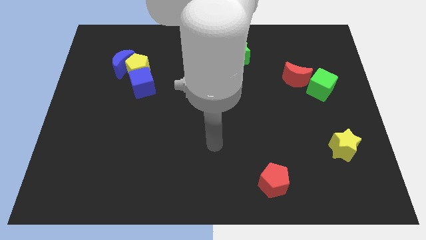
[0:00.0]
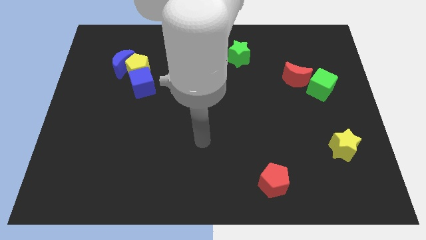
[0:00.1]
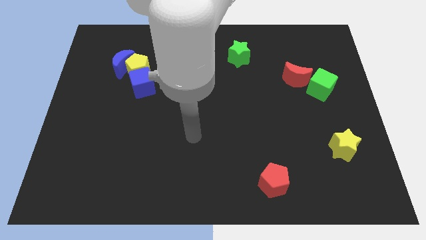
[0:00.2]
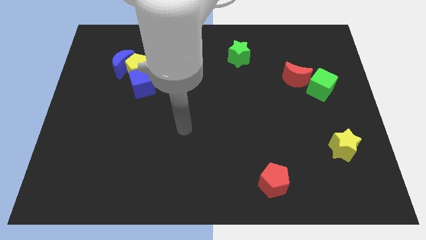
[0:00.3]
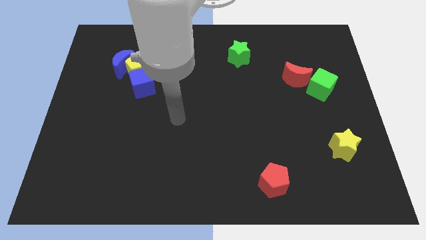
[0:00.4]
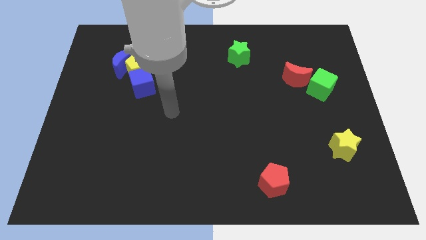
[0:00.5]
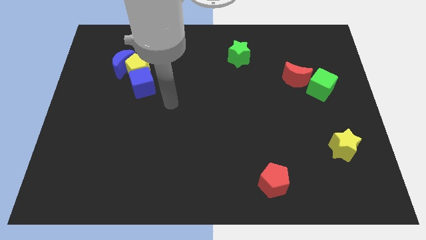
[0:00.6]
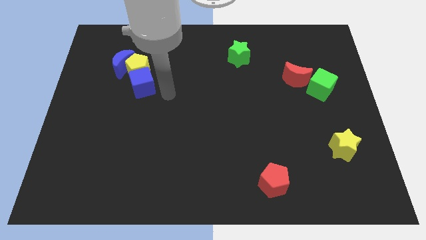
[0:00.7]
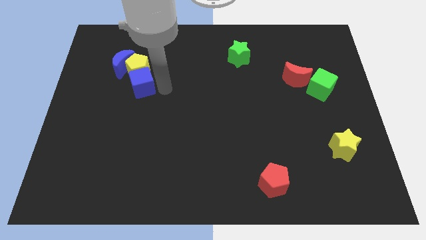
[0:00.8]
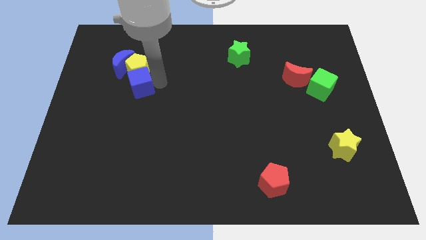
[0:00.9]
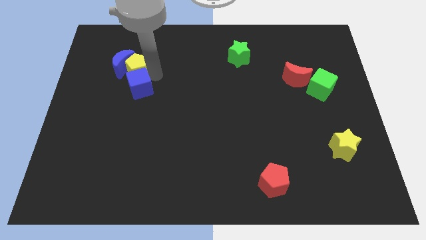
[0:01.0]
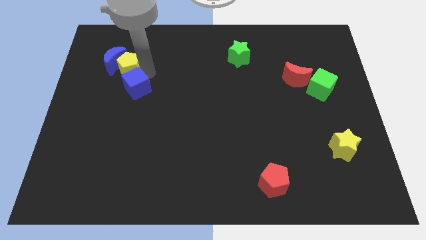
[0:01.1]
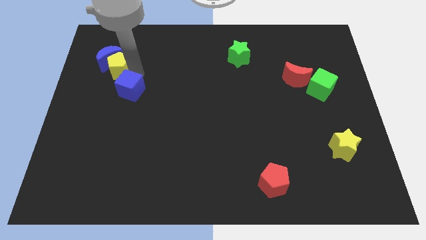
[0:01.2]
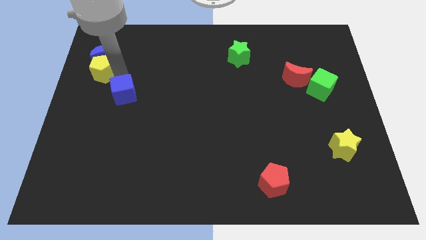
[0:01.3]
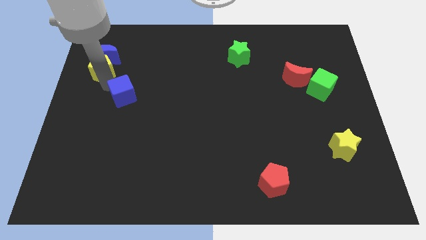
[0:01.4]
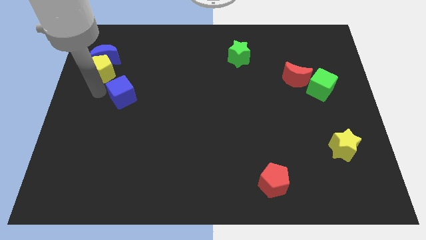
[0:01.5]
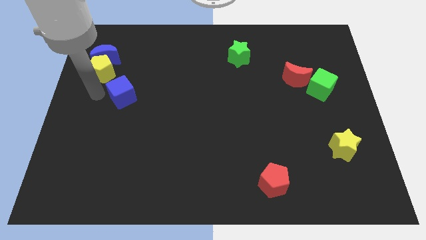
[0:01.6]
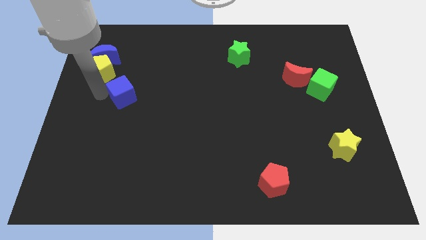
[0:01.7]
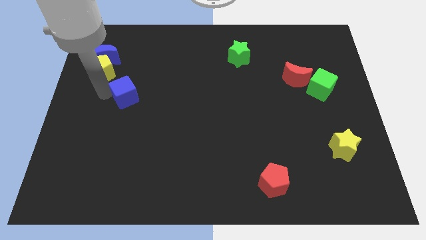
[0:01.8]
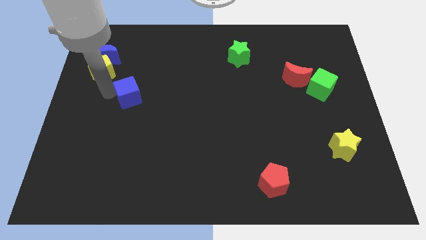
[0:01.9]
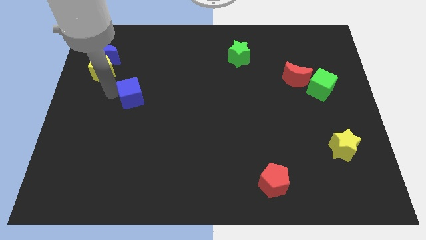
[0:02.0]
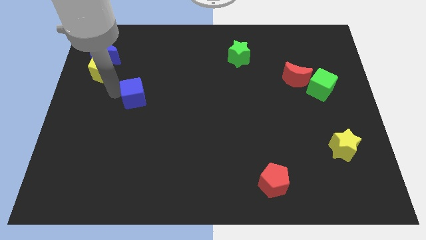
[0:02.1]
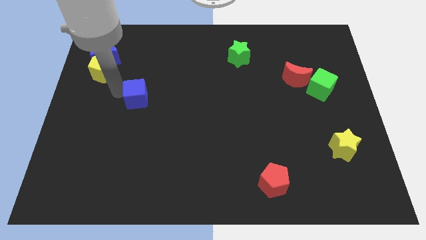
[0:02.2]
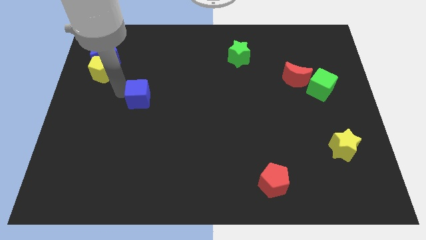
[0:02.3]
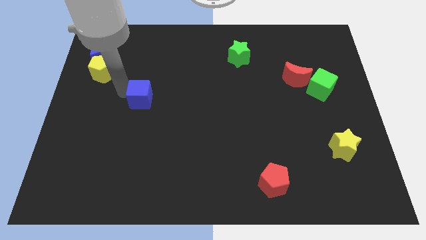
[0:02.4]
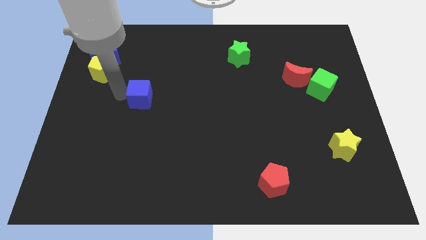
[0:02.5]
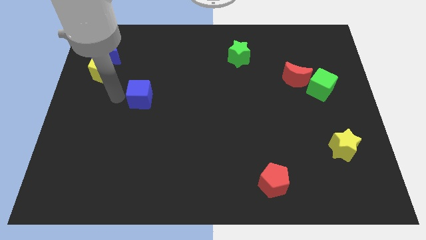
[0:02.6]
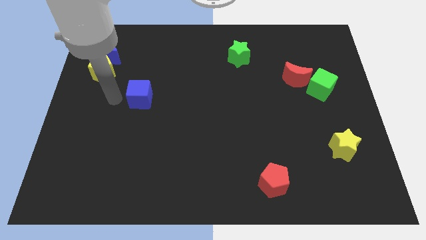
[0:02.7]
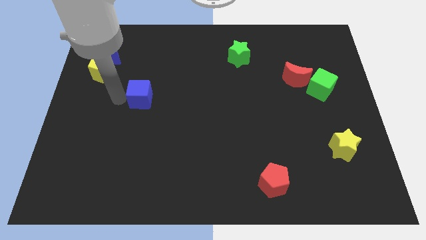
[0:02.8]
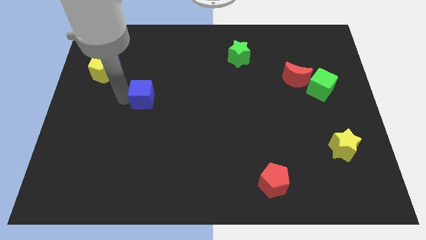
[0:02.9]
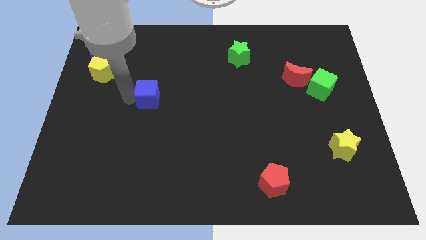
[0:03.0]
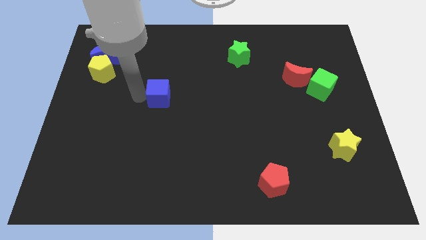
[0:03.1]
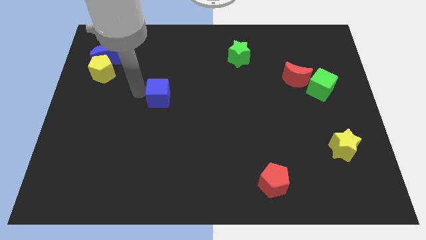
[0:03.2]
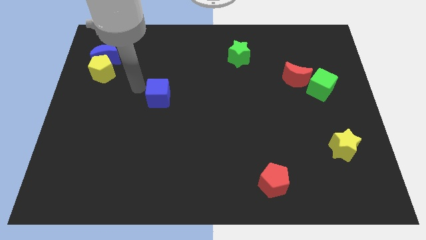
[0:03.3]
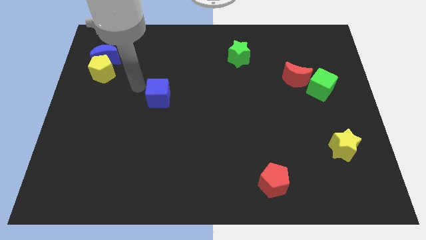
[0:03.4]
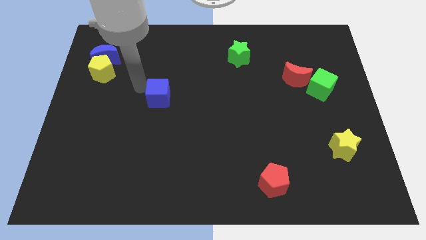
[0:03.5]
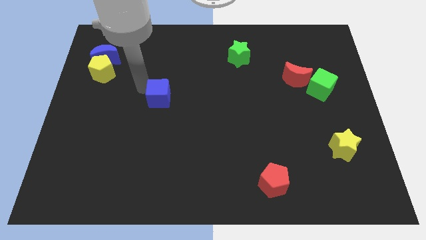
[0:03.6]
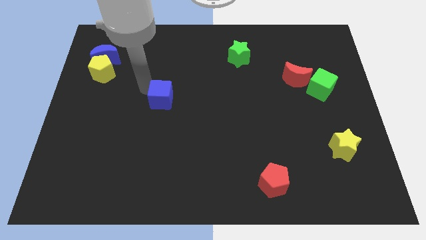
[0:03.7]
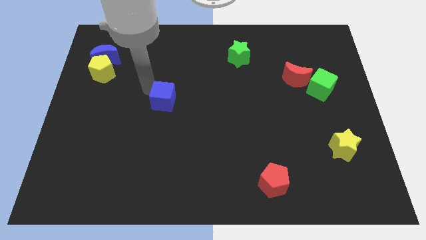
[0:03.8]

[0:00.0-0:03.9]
slightly push the blue cube down and to the right diagonally

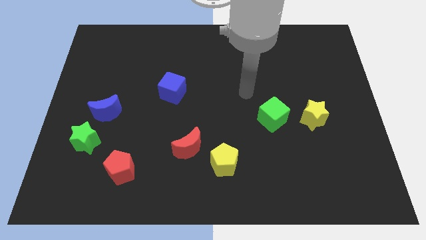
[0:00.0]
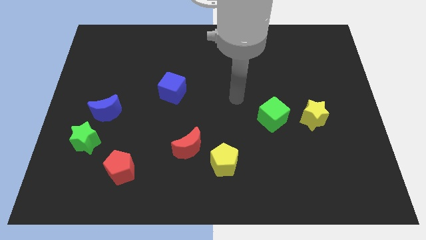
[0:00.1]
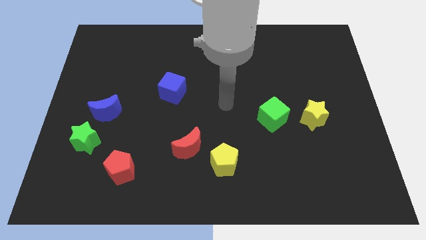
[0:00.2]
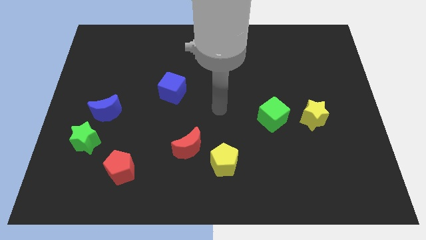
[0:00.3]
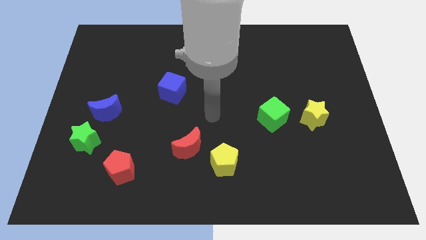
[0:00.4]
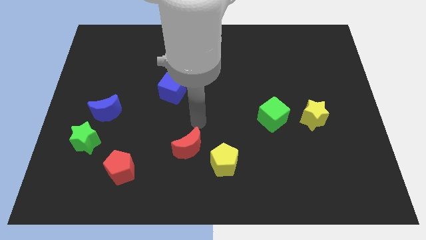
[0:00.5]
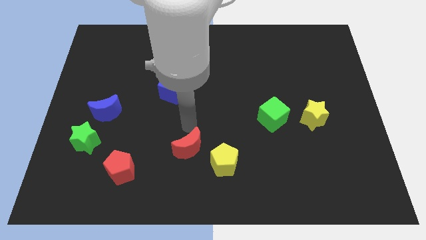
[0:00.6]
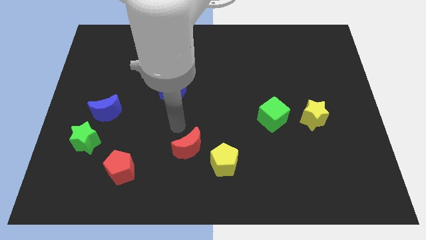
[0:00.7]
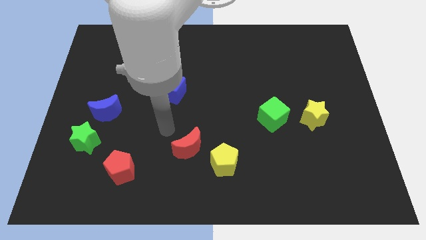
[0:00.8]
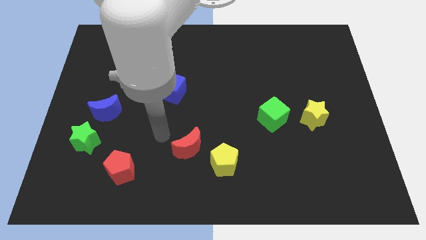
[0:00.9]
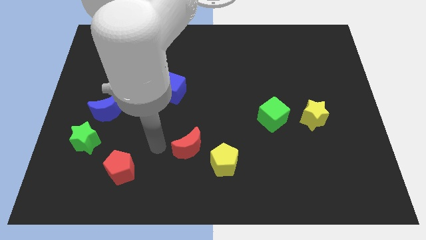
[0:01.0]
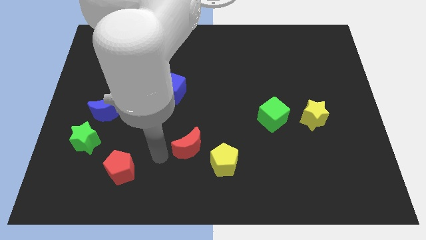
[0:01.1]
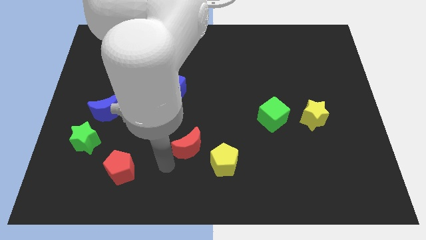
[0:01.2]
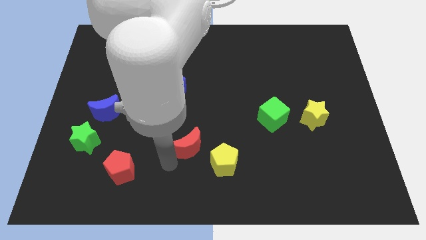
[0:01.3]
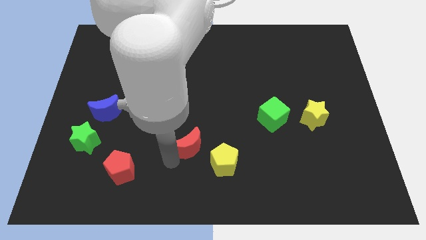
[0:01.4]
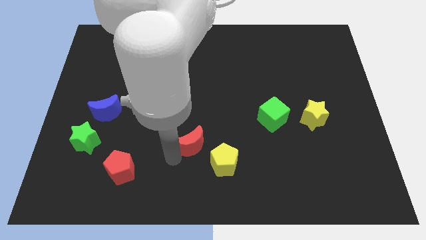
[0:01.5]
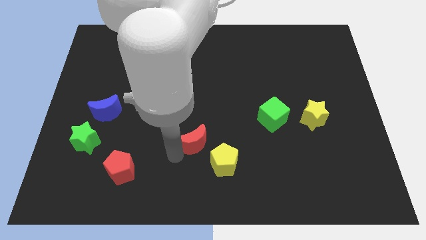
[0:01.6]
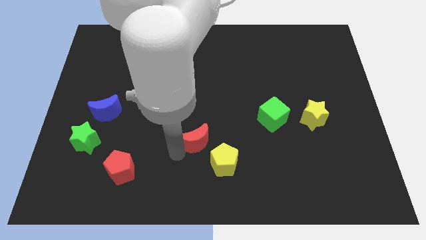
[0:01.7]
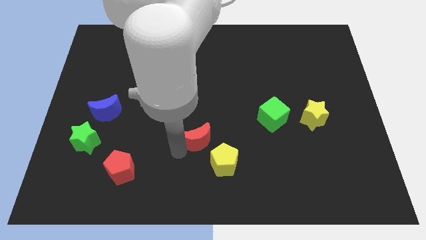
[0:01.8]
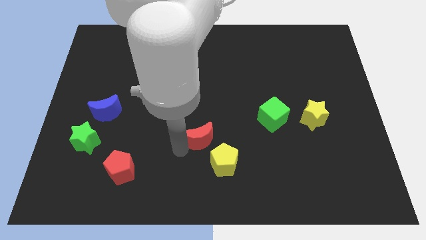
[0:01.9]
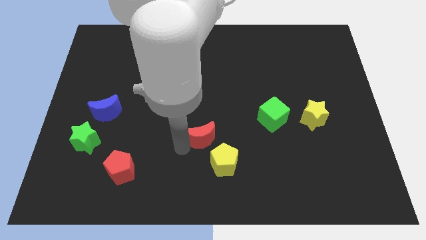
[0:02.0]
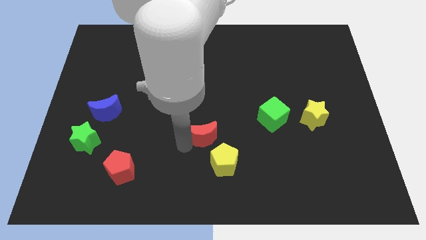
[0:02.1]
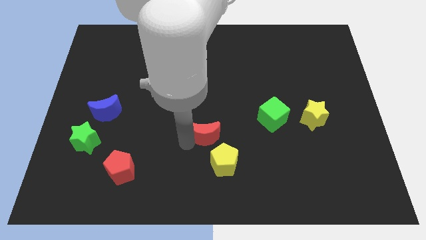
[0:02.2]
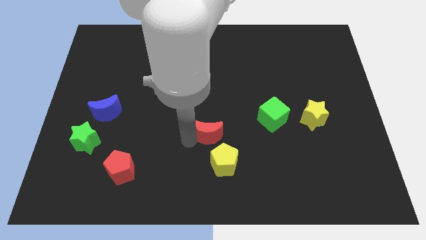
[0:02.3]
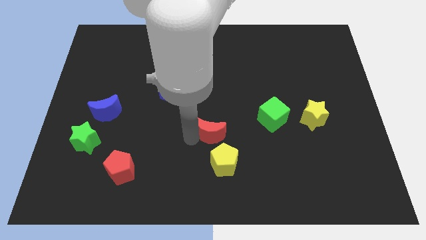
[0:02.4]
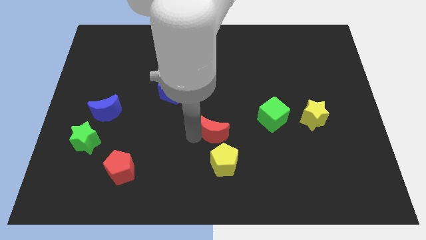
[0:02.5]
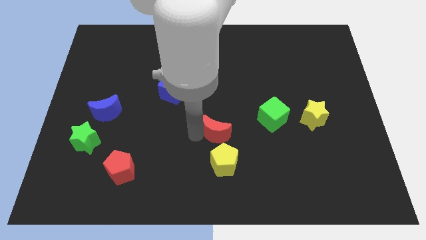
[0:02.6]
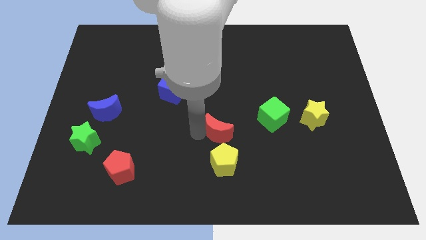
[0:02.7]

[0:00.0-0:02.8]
slide the red moon diagonally upwards and to the right somewhat

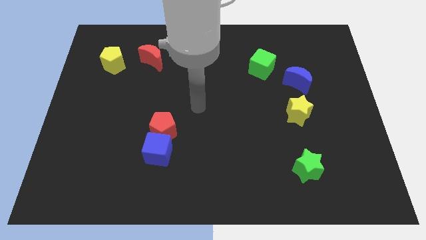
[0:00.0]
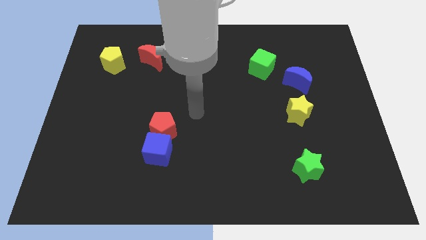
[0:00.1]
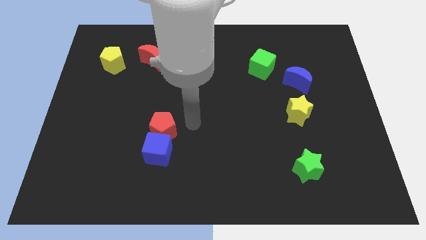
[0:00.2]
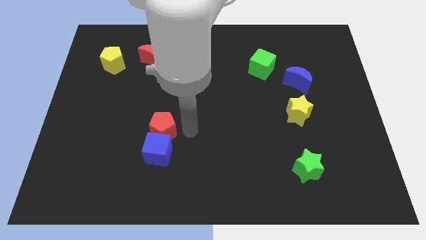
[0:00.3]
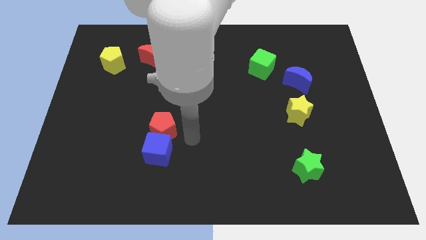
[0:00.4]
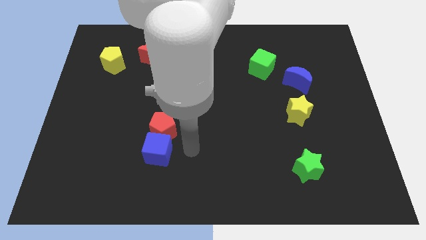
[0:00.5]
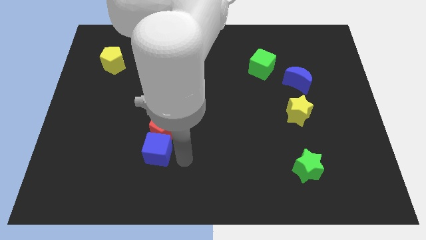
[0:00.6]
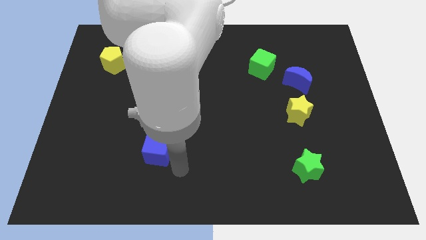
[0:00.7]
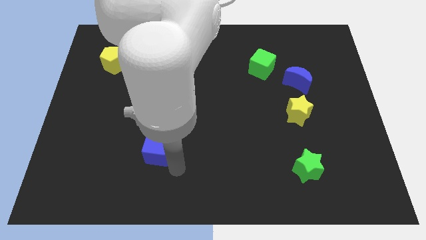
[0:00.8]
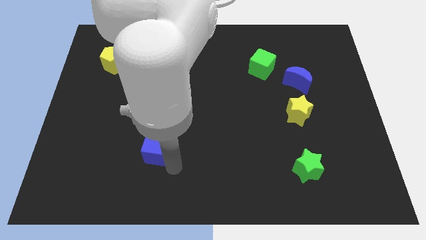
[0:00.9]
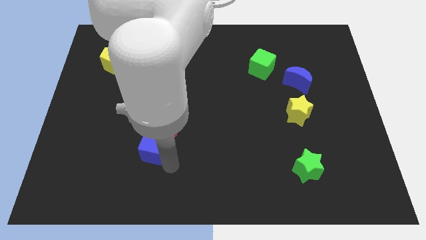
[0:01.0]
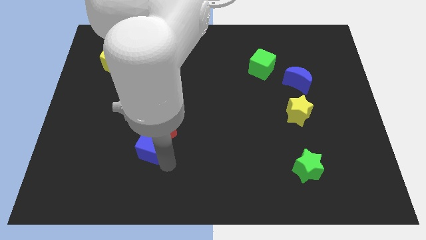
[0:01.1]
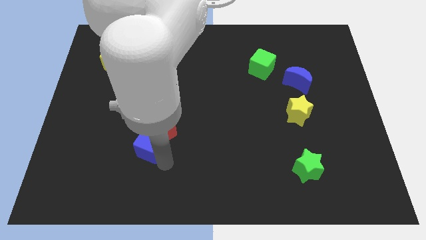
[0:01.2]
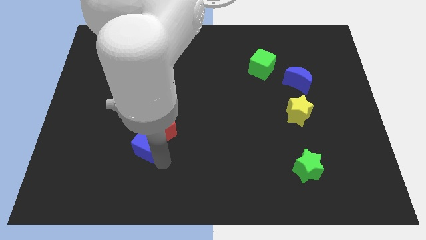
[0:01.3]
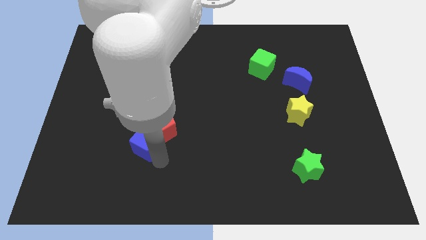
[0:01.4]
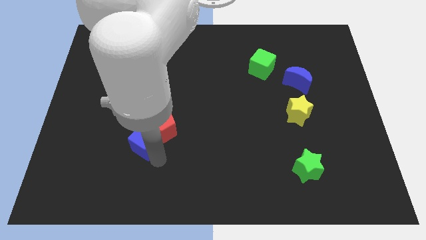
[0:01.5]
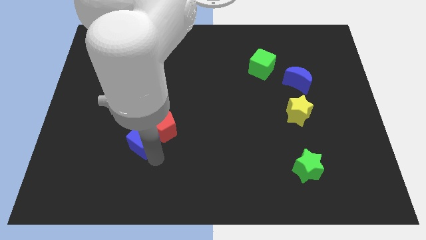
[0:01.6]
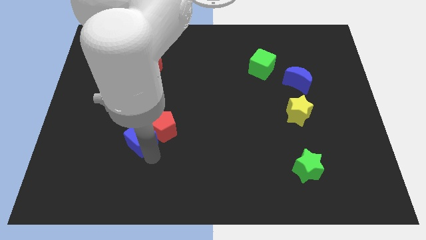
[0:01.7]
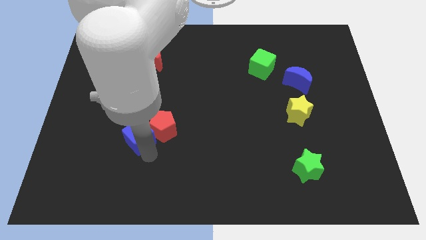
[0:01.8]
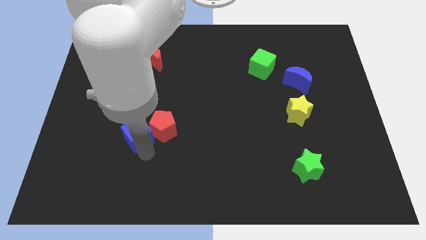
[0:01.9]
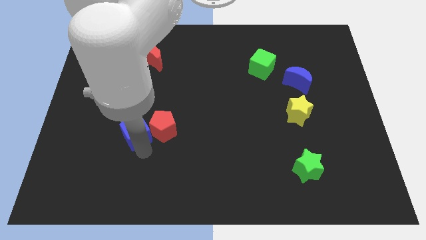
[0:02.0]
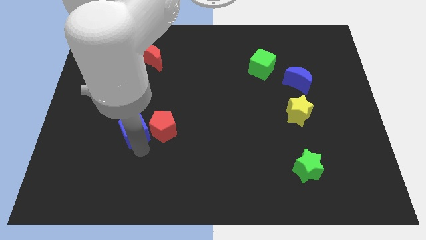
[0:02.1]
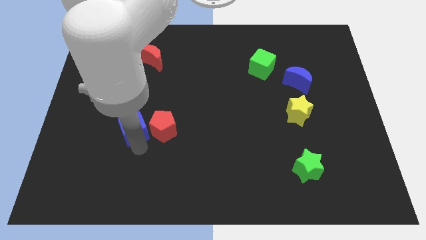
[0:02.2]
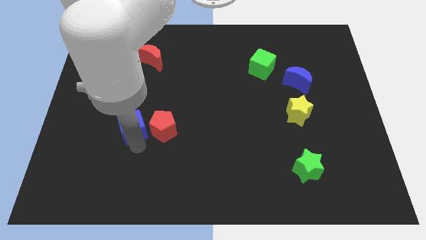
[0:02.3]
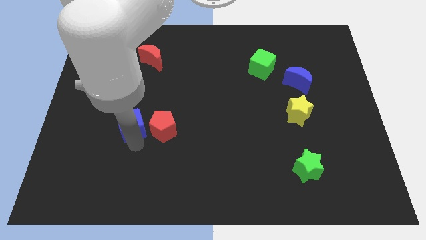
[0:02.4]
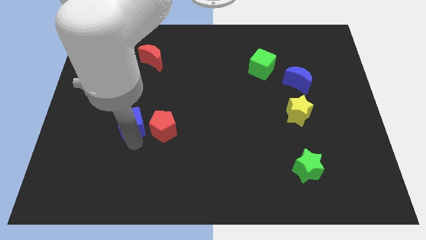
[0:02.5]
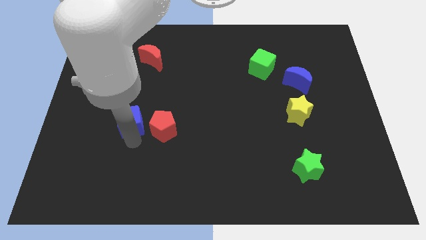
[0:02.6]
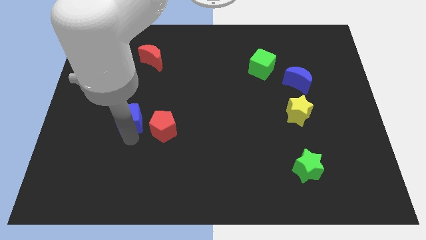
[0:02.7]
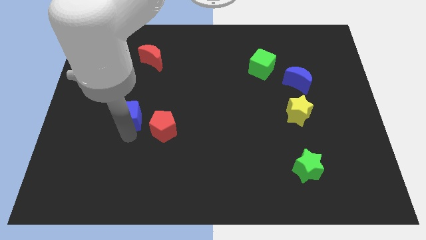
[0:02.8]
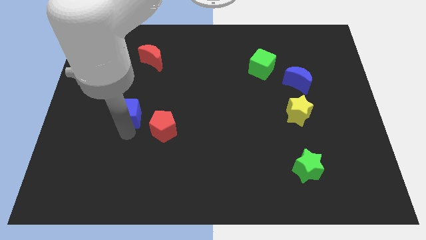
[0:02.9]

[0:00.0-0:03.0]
push the blue cube a little up
